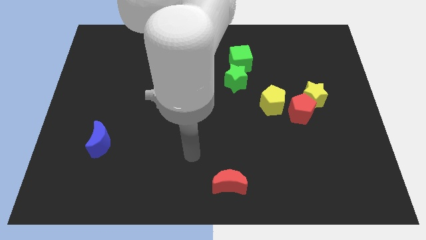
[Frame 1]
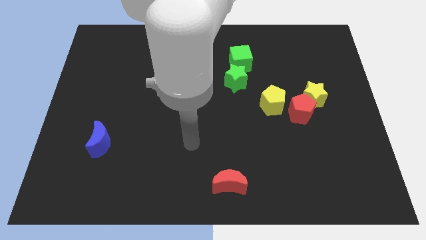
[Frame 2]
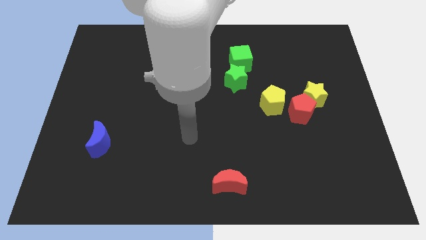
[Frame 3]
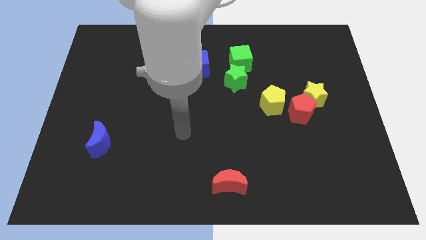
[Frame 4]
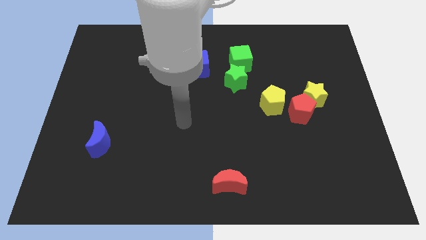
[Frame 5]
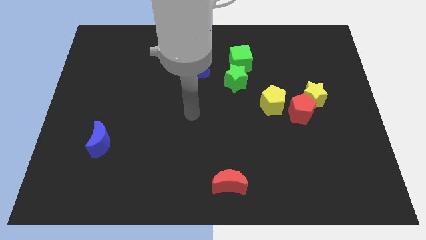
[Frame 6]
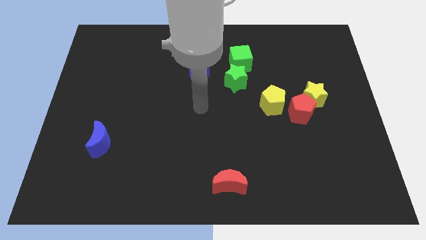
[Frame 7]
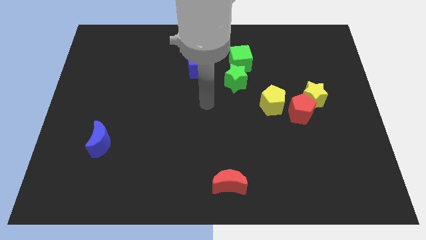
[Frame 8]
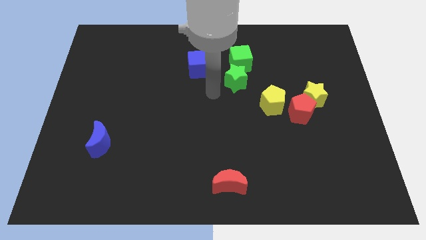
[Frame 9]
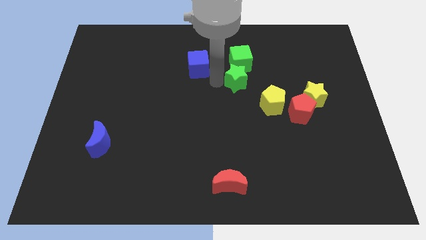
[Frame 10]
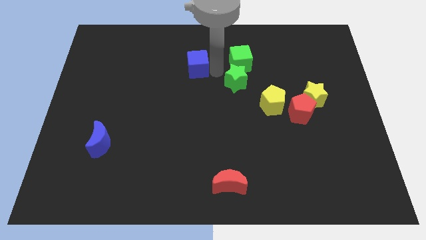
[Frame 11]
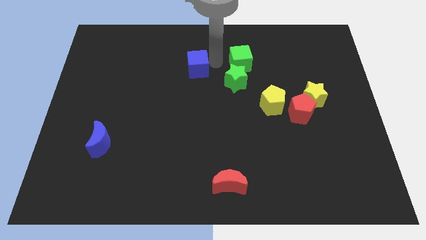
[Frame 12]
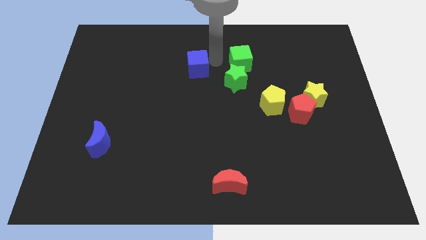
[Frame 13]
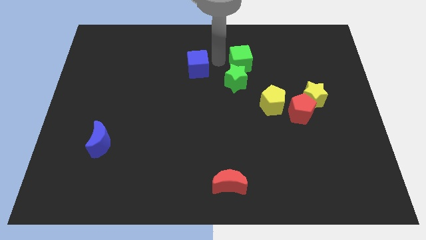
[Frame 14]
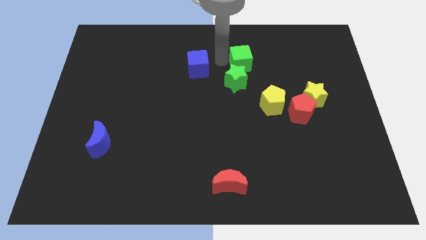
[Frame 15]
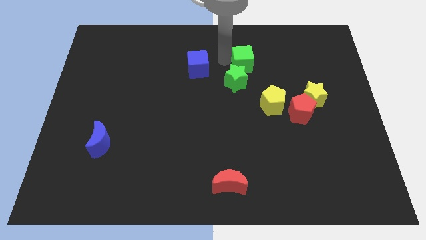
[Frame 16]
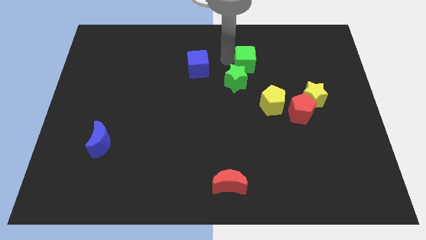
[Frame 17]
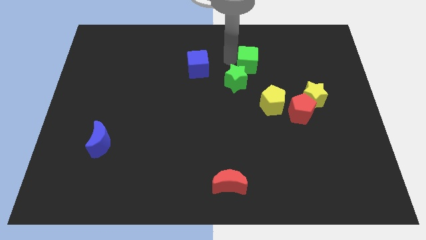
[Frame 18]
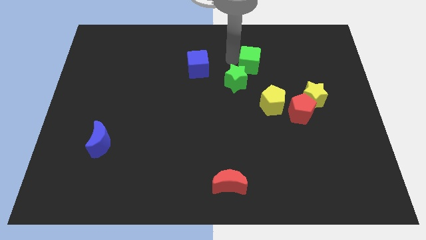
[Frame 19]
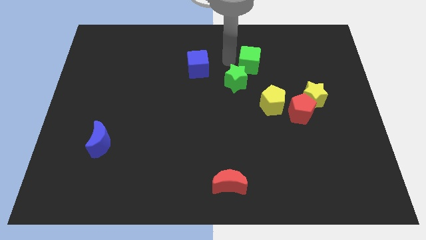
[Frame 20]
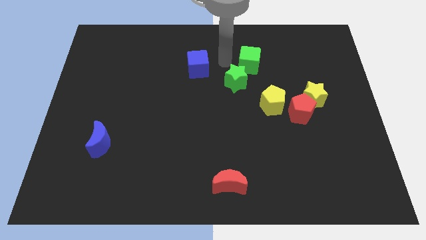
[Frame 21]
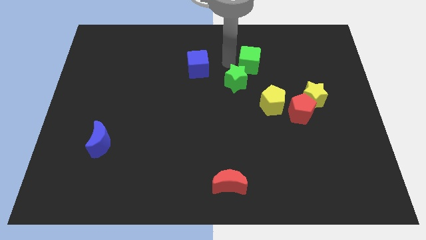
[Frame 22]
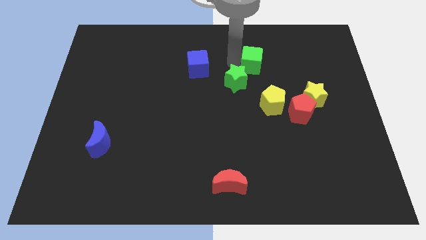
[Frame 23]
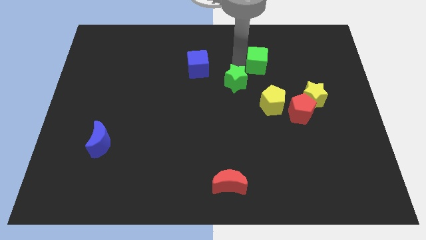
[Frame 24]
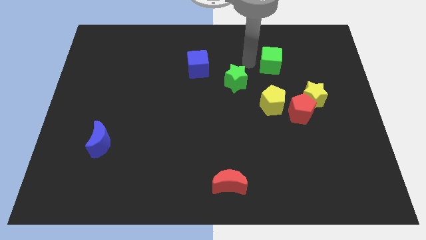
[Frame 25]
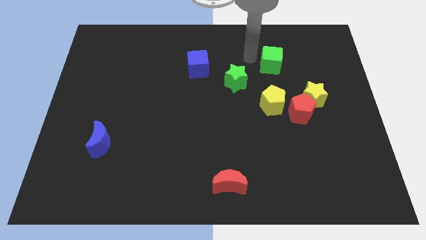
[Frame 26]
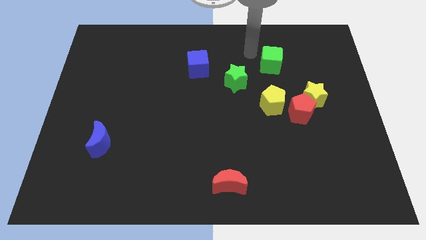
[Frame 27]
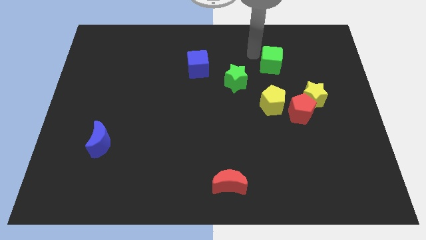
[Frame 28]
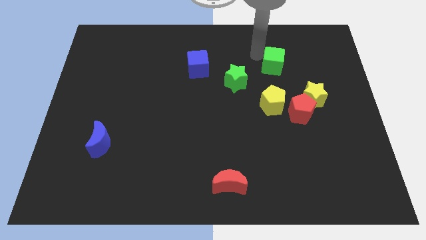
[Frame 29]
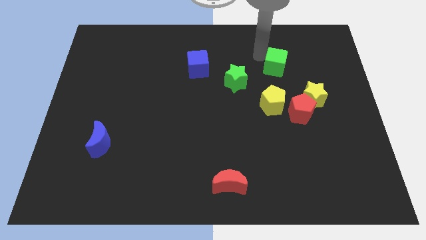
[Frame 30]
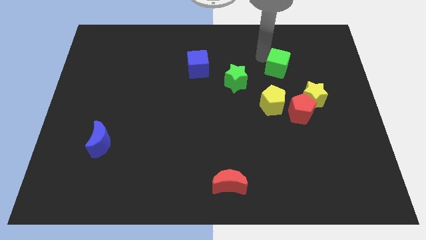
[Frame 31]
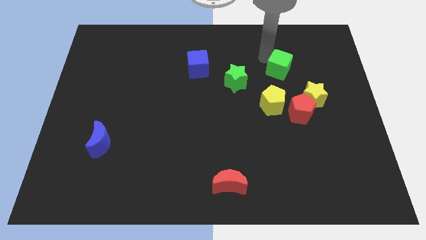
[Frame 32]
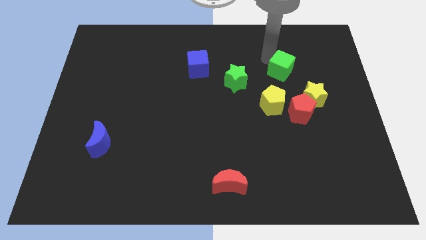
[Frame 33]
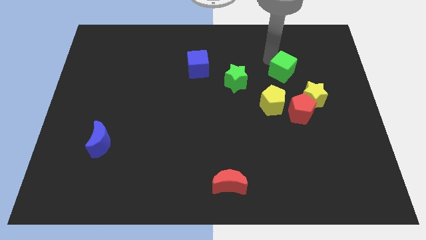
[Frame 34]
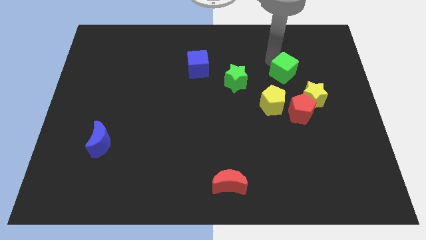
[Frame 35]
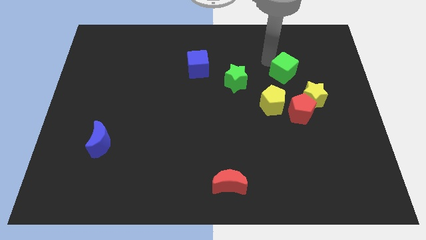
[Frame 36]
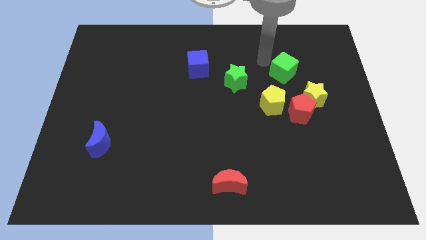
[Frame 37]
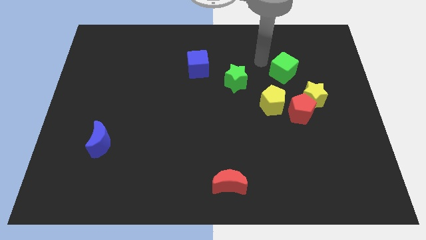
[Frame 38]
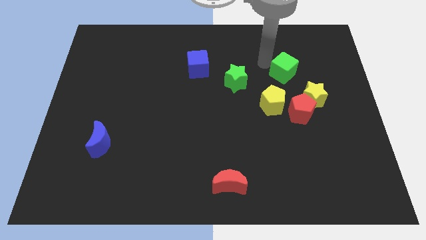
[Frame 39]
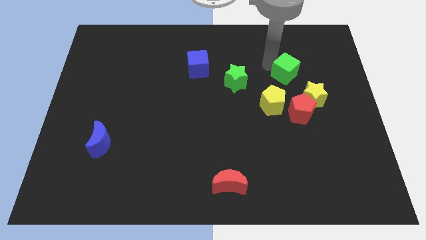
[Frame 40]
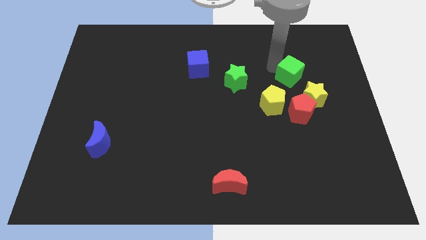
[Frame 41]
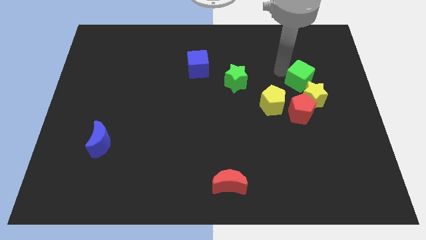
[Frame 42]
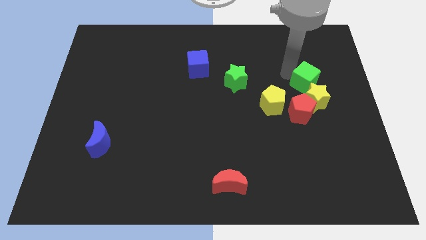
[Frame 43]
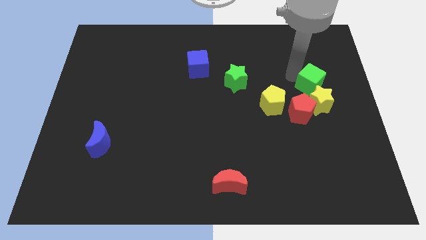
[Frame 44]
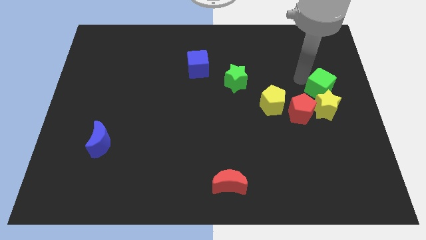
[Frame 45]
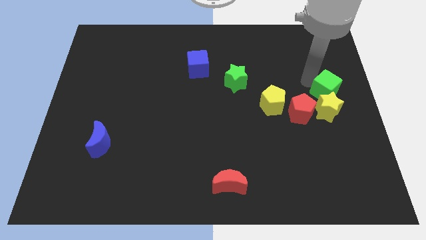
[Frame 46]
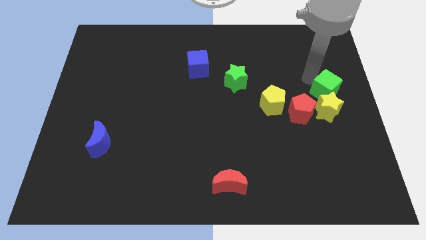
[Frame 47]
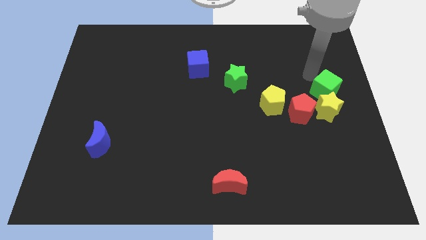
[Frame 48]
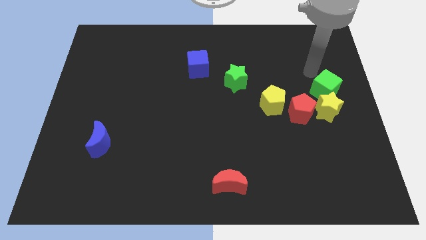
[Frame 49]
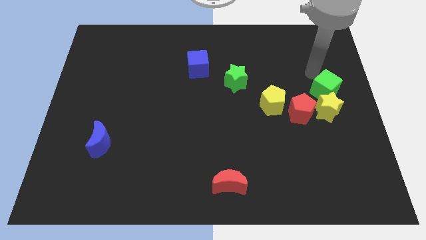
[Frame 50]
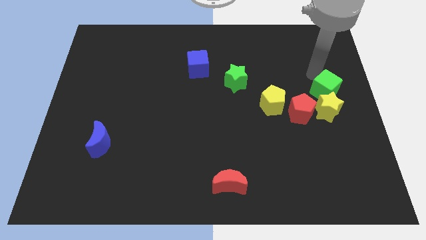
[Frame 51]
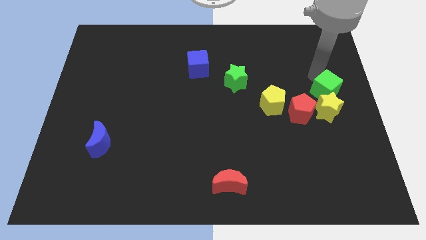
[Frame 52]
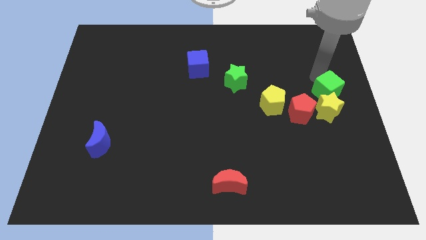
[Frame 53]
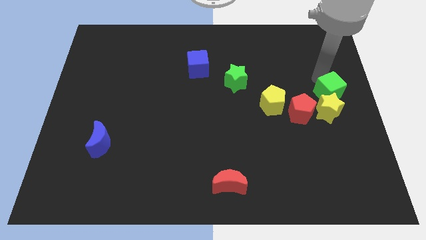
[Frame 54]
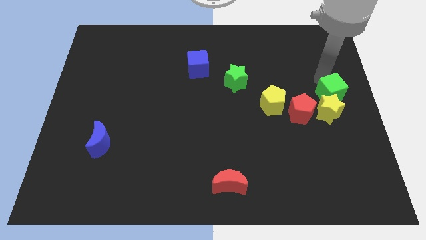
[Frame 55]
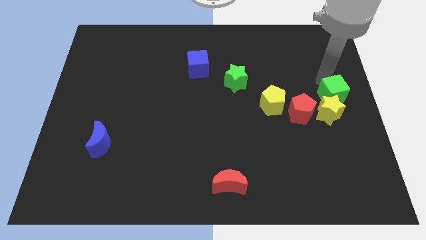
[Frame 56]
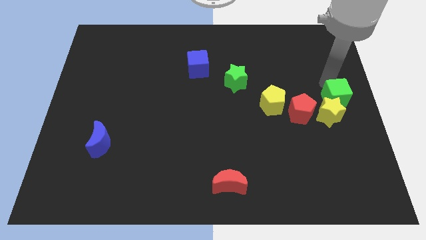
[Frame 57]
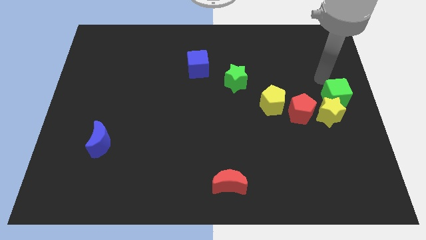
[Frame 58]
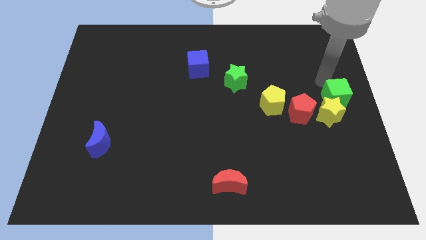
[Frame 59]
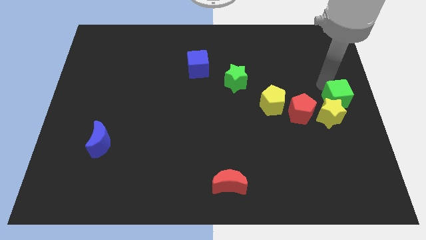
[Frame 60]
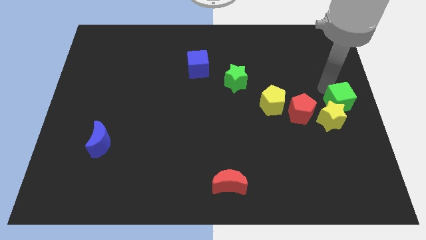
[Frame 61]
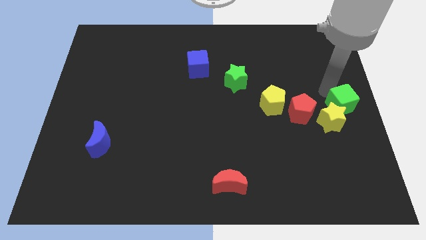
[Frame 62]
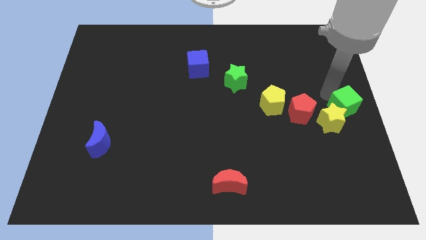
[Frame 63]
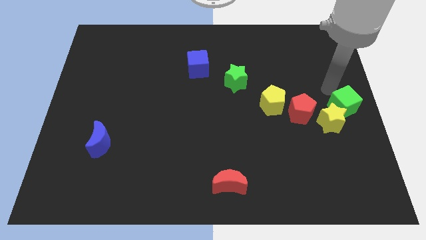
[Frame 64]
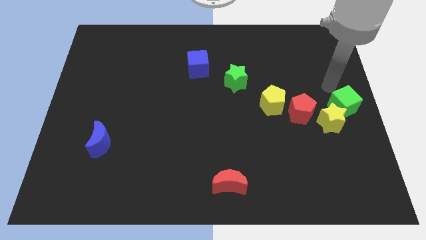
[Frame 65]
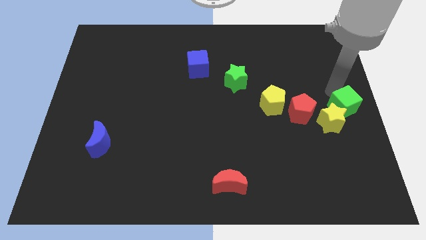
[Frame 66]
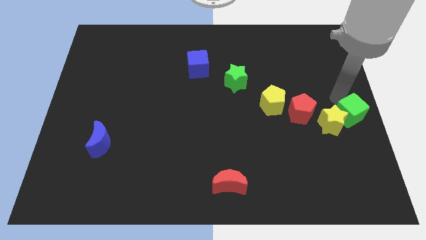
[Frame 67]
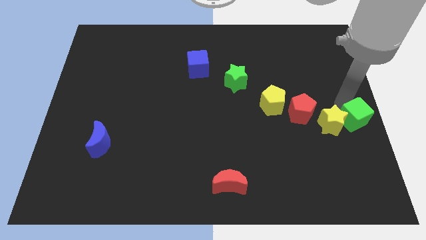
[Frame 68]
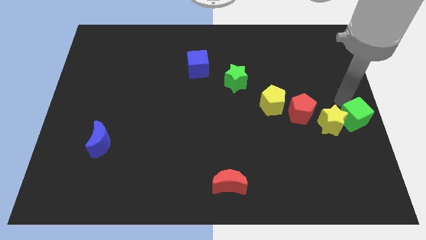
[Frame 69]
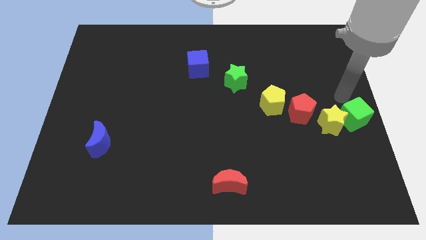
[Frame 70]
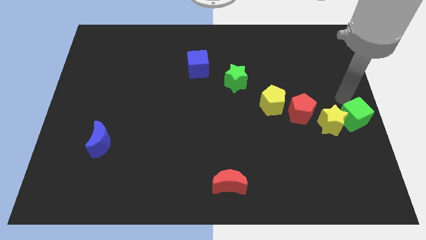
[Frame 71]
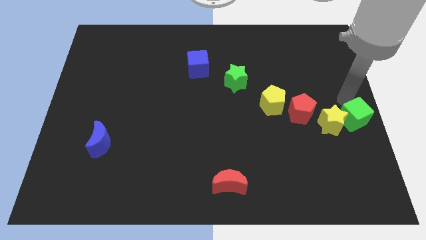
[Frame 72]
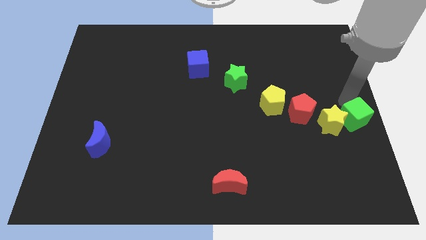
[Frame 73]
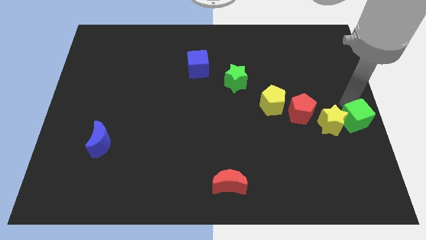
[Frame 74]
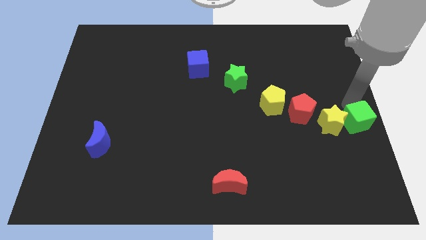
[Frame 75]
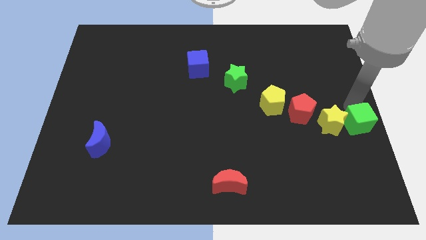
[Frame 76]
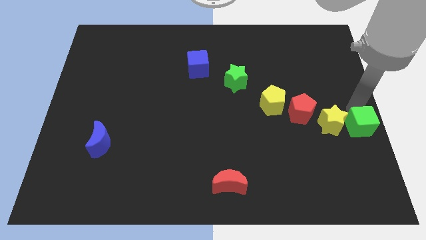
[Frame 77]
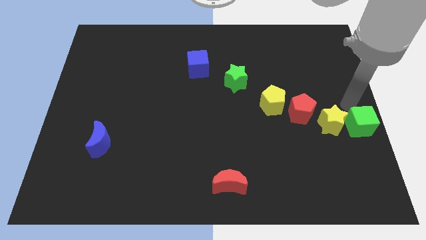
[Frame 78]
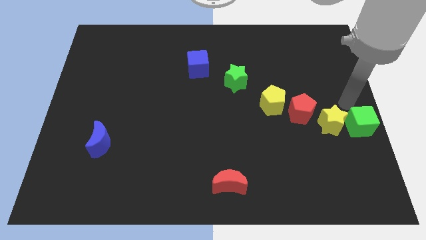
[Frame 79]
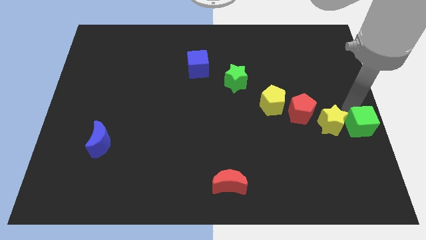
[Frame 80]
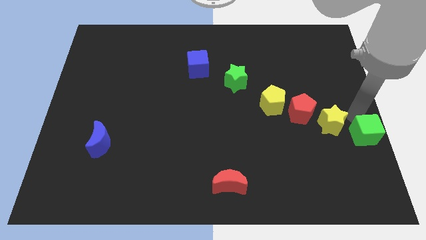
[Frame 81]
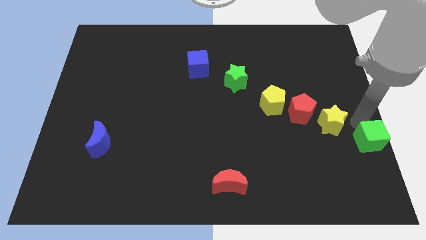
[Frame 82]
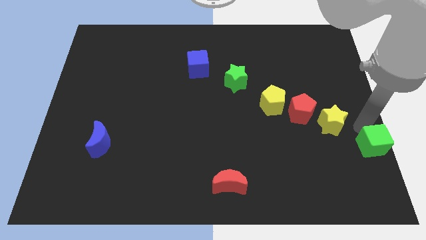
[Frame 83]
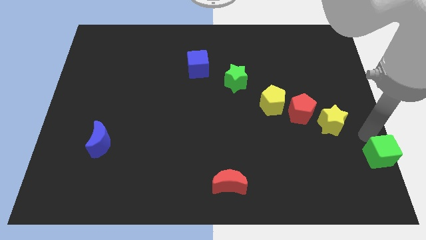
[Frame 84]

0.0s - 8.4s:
push the green cube to the lower right corner
